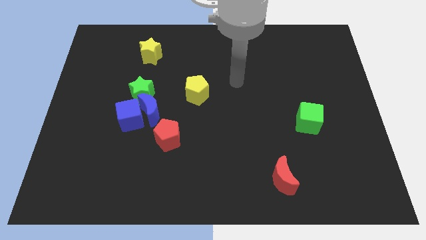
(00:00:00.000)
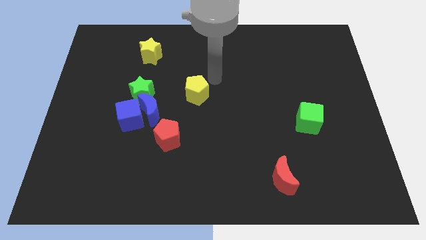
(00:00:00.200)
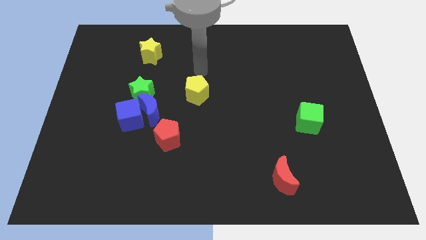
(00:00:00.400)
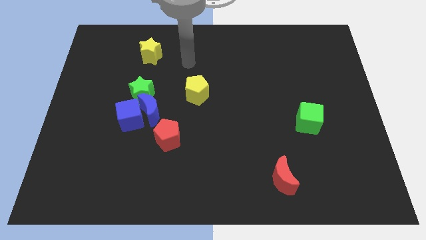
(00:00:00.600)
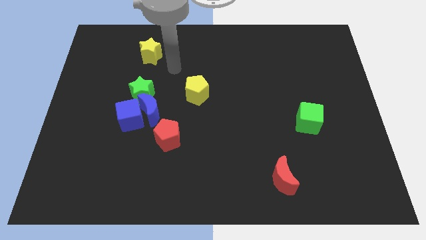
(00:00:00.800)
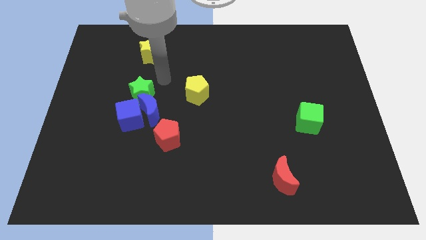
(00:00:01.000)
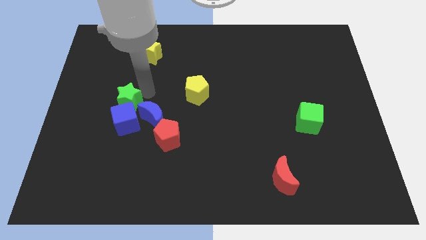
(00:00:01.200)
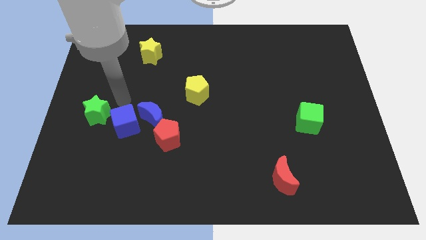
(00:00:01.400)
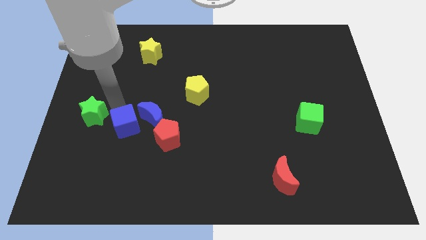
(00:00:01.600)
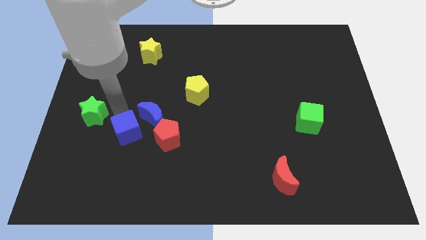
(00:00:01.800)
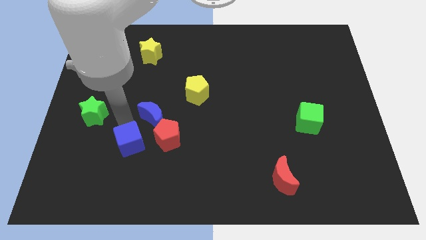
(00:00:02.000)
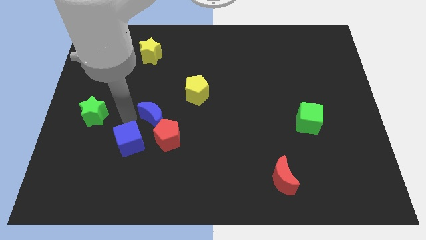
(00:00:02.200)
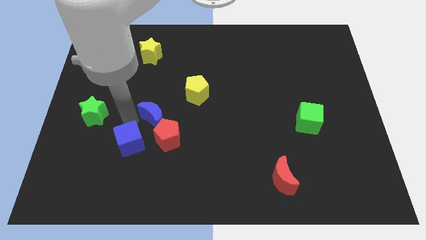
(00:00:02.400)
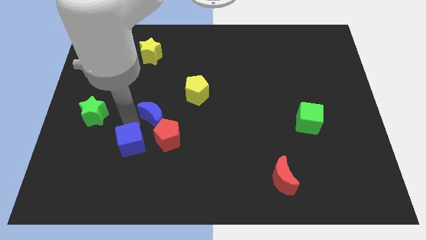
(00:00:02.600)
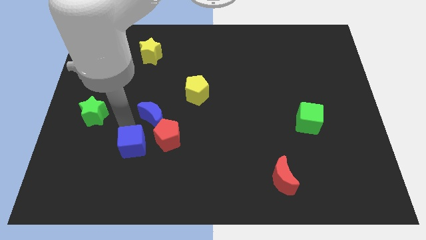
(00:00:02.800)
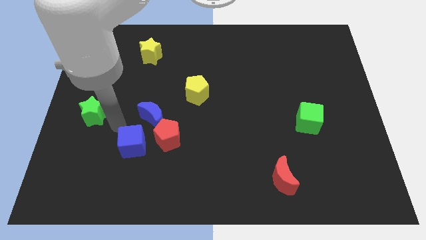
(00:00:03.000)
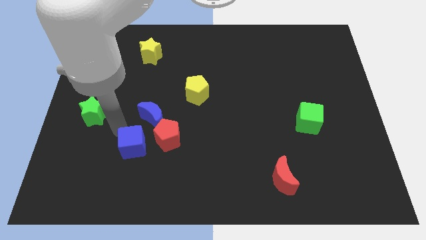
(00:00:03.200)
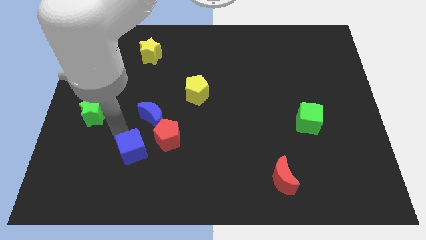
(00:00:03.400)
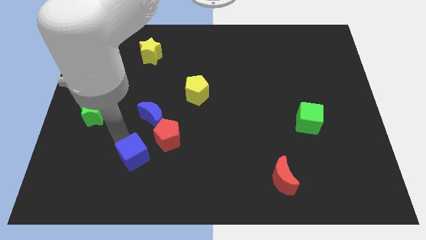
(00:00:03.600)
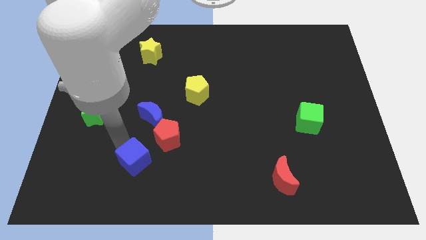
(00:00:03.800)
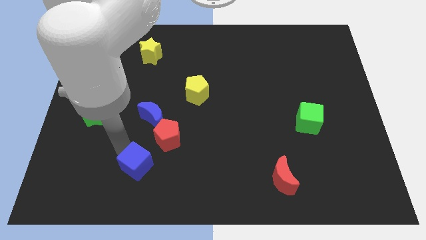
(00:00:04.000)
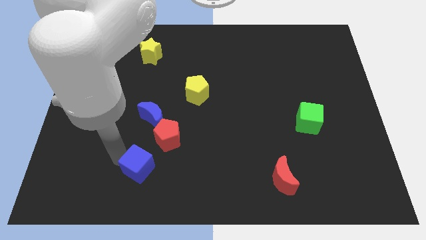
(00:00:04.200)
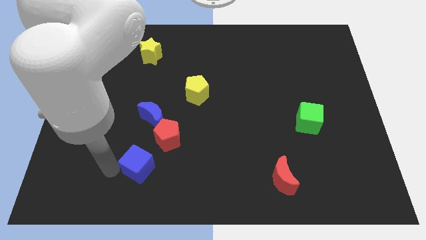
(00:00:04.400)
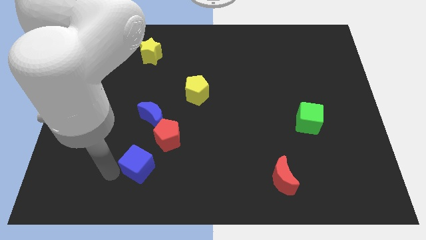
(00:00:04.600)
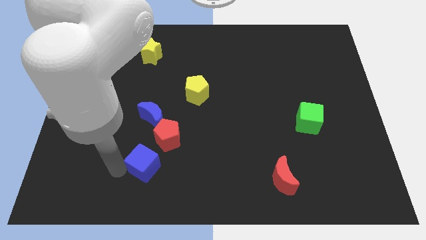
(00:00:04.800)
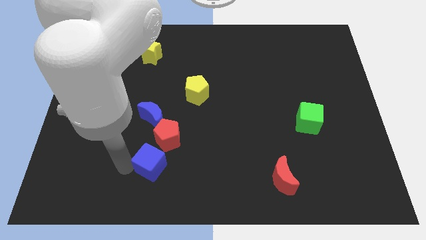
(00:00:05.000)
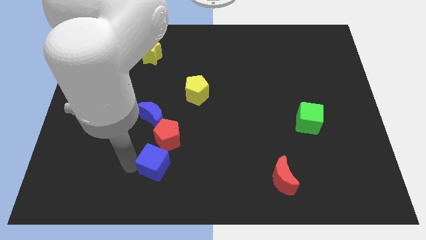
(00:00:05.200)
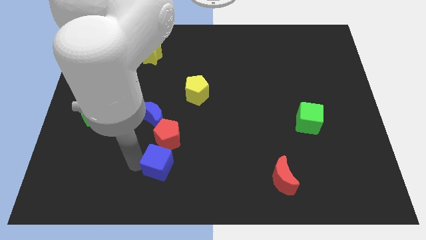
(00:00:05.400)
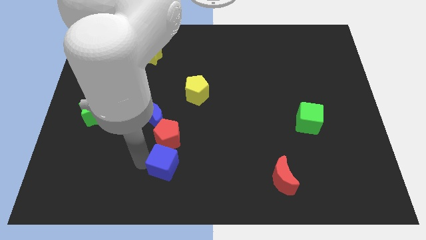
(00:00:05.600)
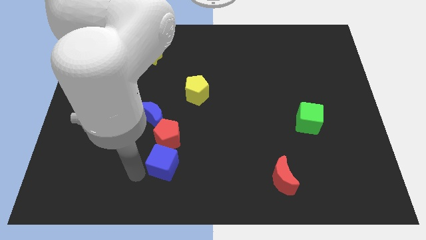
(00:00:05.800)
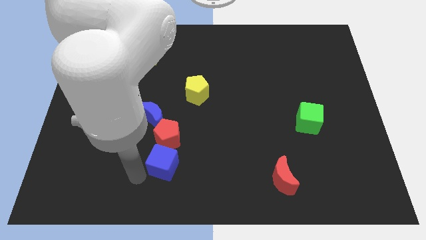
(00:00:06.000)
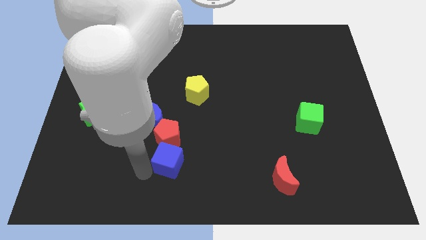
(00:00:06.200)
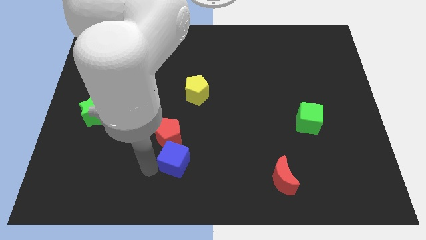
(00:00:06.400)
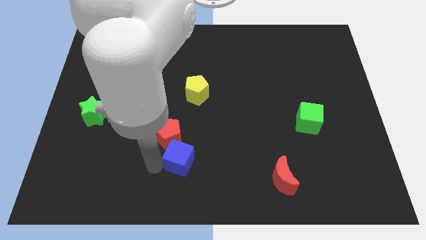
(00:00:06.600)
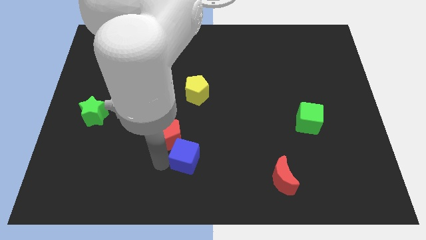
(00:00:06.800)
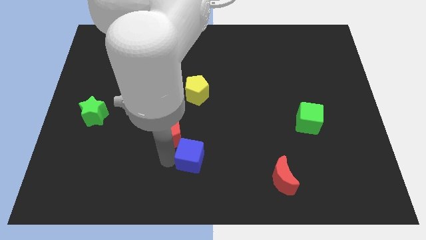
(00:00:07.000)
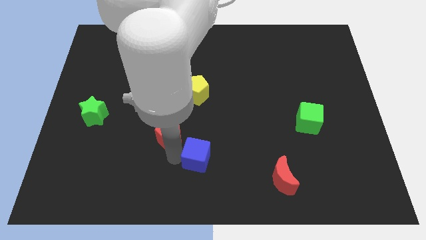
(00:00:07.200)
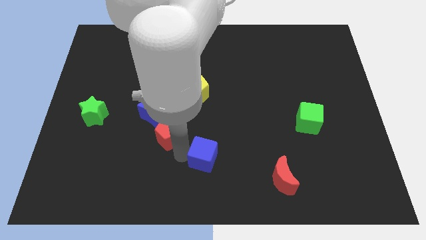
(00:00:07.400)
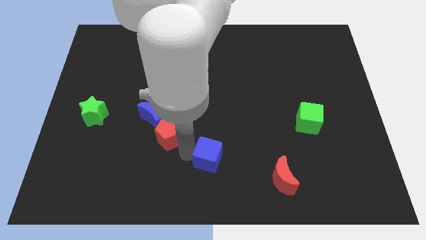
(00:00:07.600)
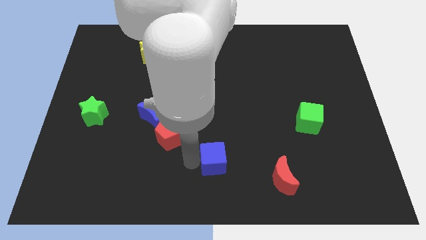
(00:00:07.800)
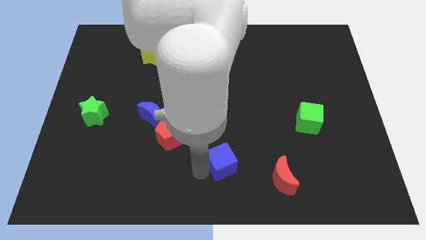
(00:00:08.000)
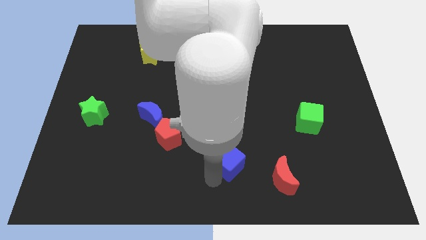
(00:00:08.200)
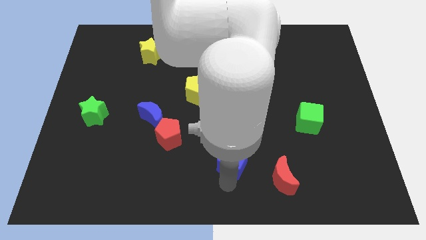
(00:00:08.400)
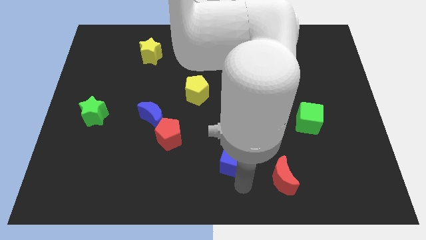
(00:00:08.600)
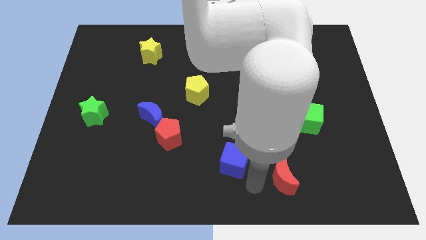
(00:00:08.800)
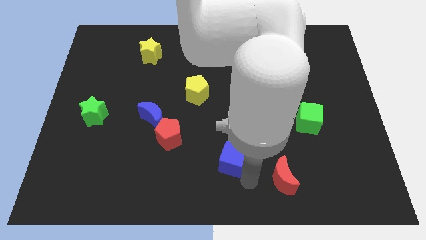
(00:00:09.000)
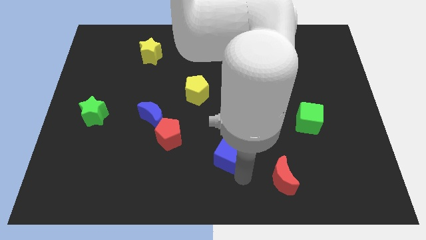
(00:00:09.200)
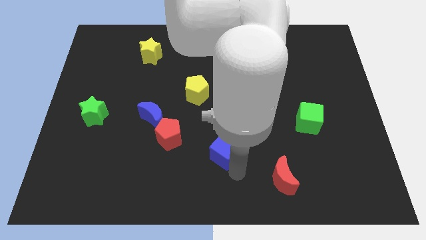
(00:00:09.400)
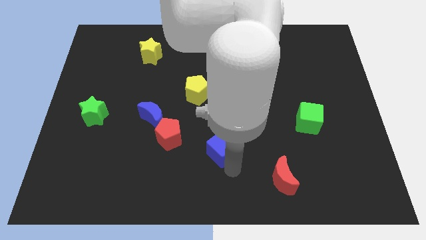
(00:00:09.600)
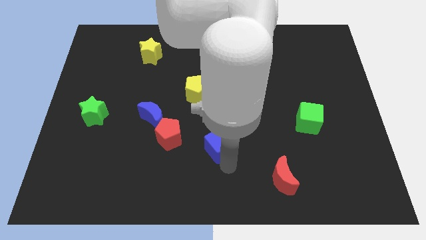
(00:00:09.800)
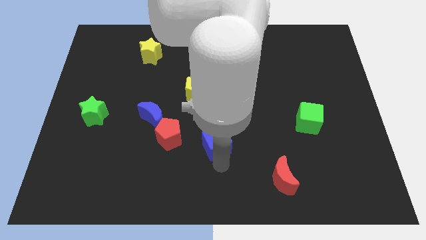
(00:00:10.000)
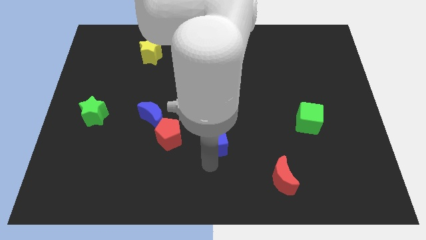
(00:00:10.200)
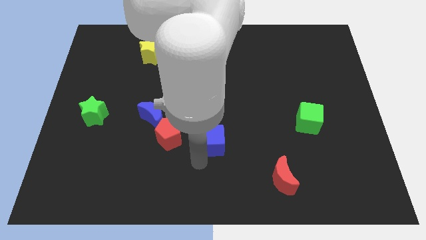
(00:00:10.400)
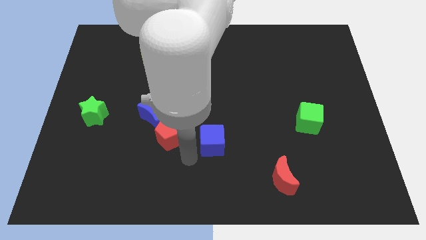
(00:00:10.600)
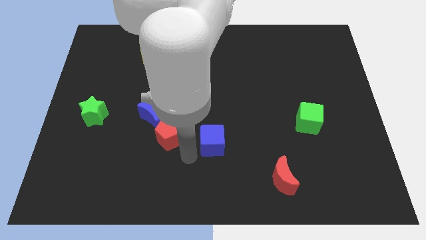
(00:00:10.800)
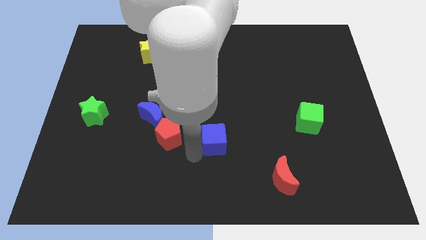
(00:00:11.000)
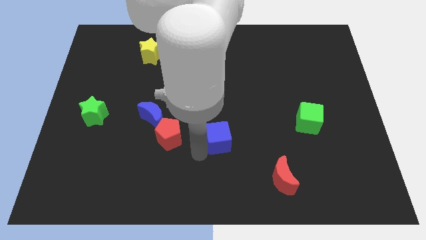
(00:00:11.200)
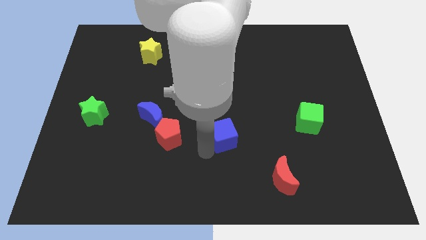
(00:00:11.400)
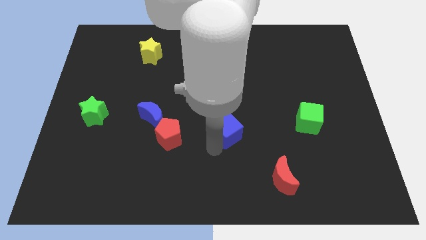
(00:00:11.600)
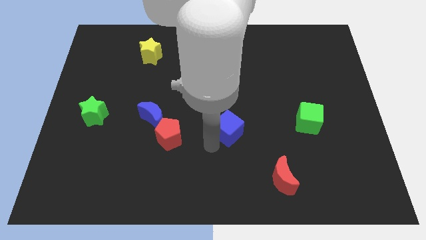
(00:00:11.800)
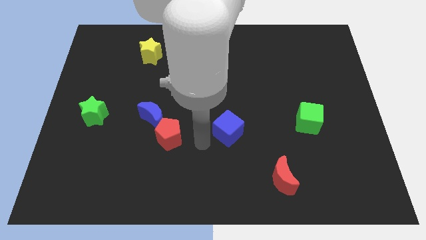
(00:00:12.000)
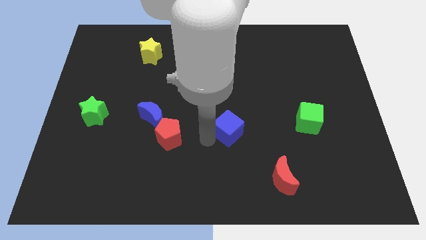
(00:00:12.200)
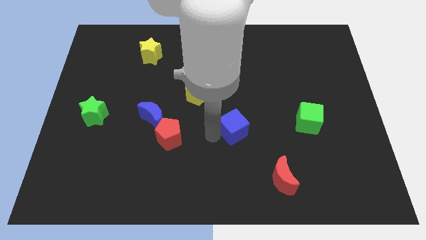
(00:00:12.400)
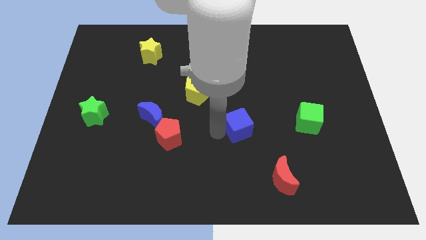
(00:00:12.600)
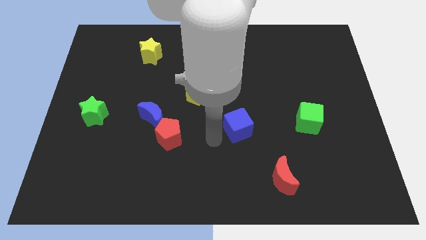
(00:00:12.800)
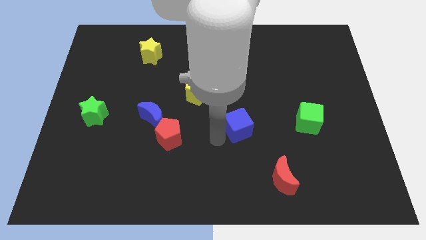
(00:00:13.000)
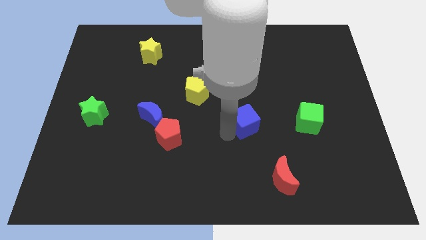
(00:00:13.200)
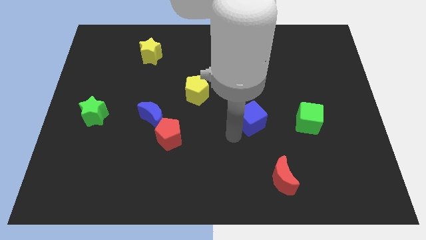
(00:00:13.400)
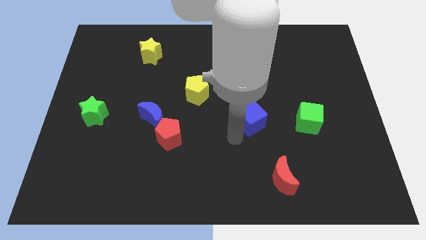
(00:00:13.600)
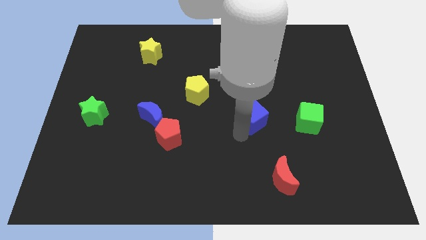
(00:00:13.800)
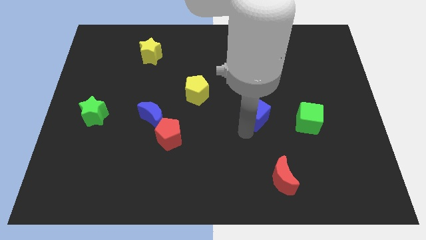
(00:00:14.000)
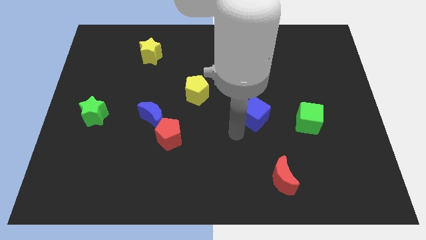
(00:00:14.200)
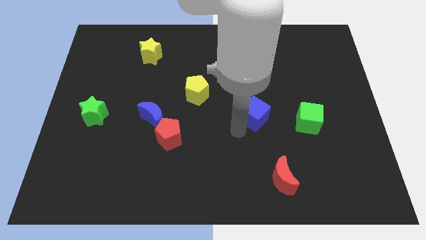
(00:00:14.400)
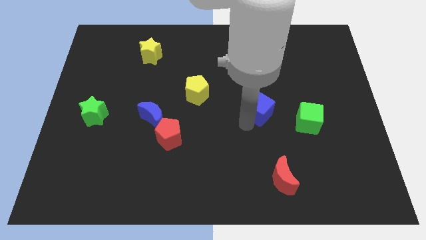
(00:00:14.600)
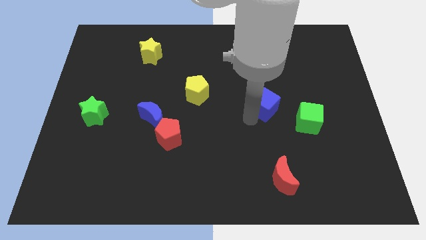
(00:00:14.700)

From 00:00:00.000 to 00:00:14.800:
slide the blue cube to the top left of the green cube
